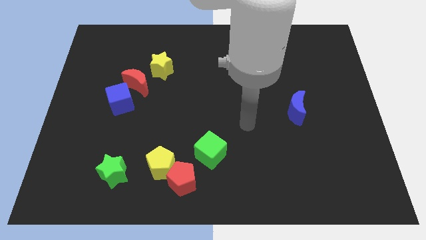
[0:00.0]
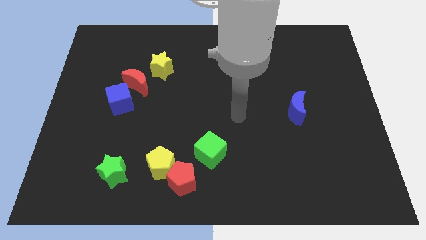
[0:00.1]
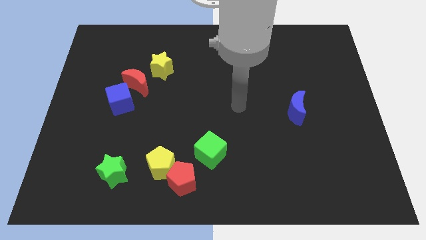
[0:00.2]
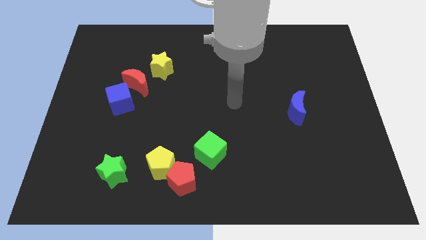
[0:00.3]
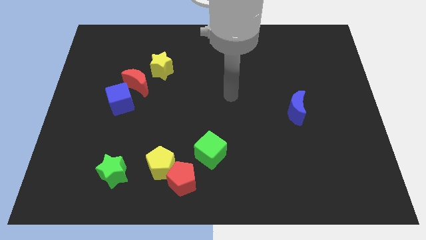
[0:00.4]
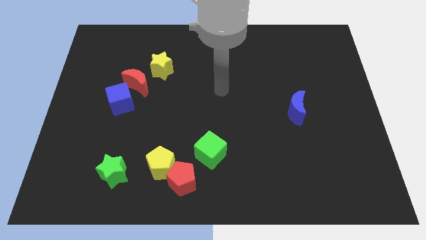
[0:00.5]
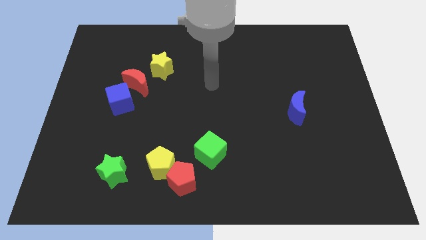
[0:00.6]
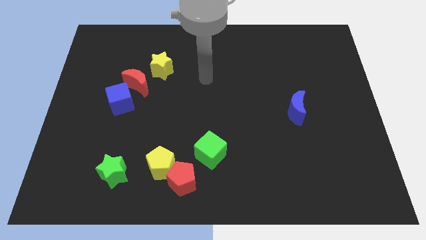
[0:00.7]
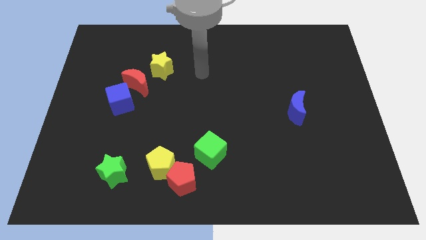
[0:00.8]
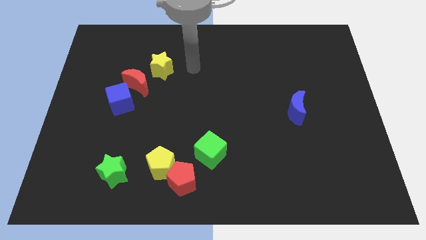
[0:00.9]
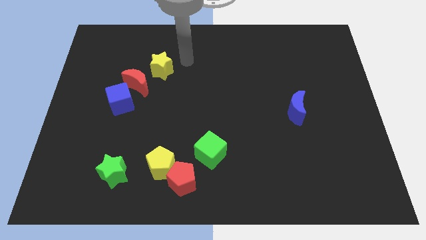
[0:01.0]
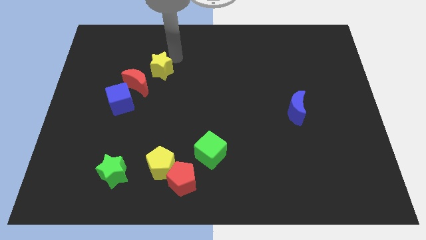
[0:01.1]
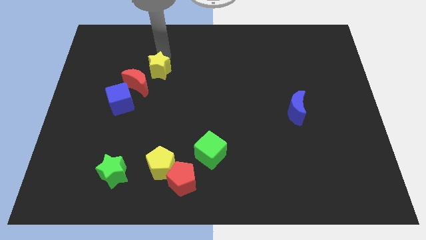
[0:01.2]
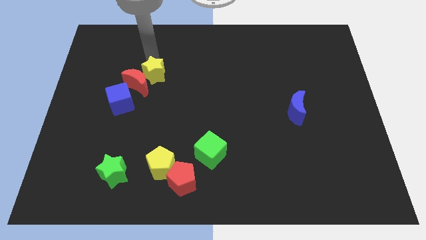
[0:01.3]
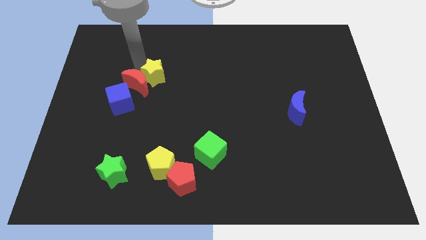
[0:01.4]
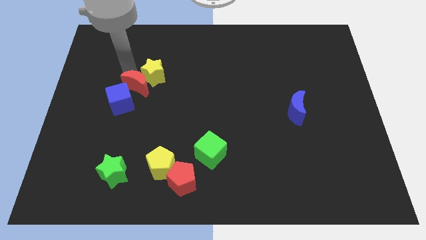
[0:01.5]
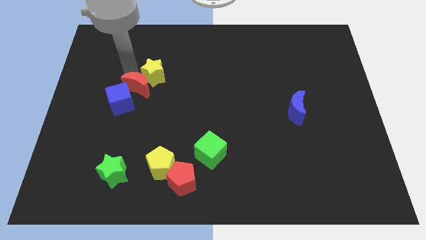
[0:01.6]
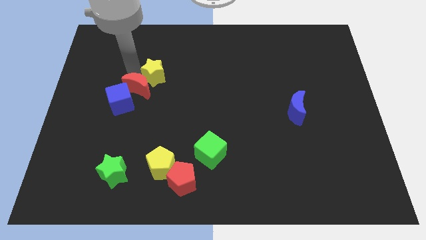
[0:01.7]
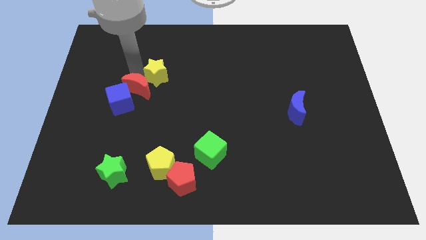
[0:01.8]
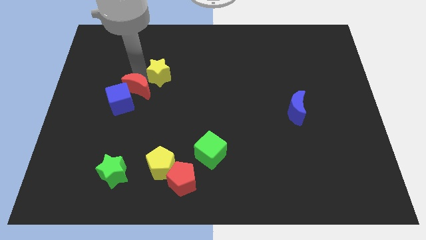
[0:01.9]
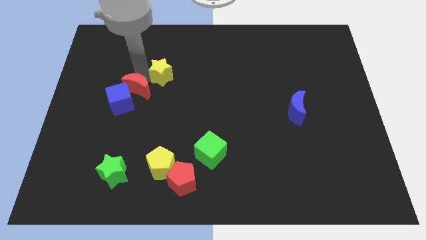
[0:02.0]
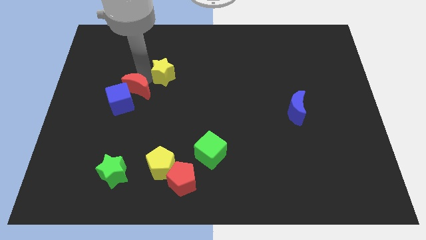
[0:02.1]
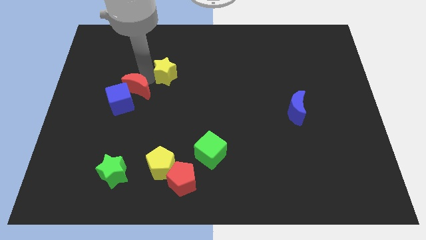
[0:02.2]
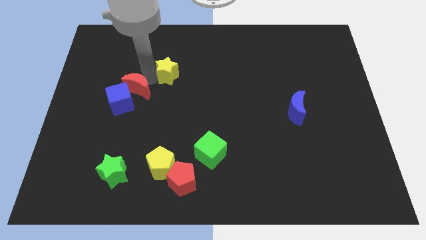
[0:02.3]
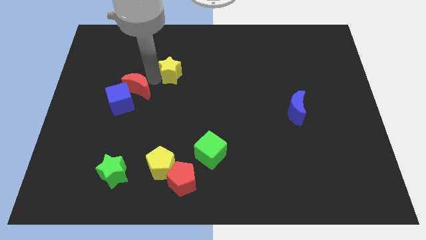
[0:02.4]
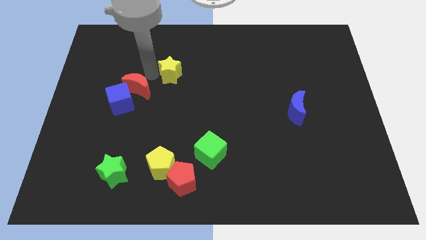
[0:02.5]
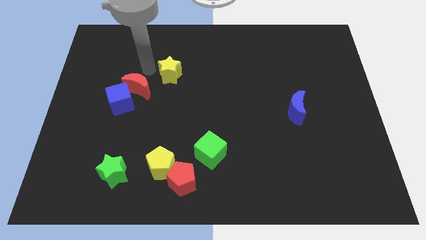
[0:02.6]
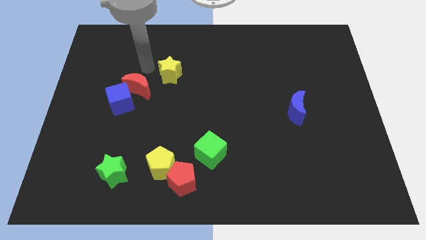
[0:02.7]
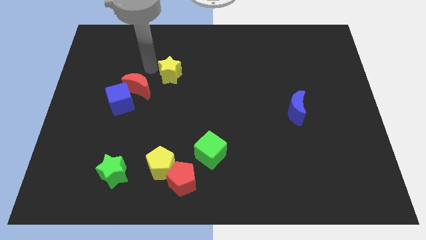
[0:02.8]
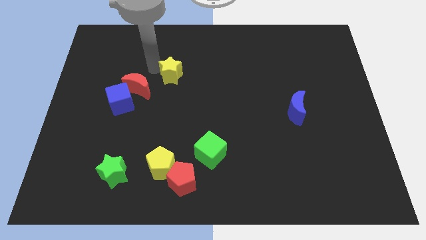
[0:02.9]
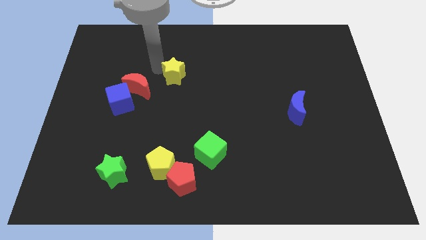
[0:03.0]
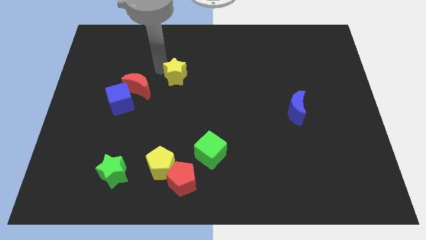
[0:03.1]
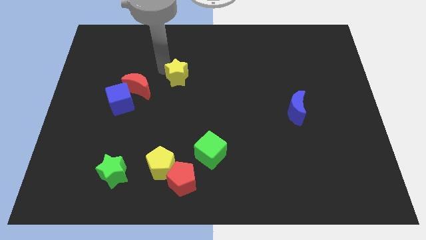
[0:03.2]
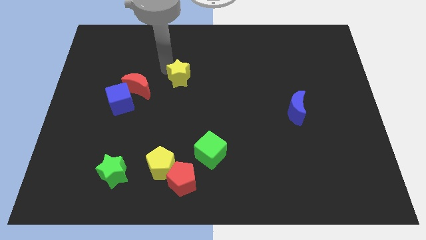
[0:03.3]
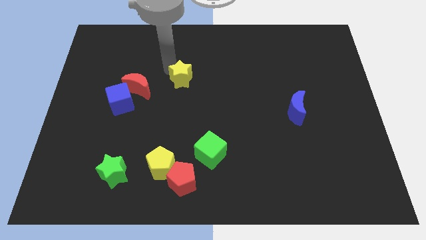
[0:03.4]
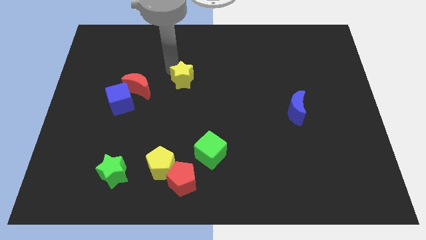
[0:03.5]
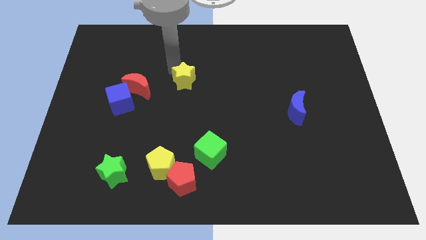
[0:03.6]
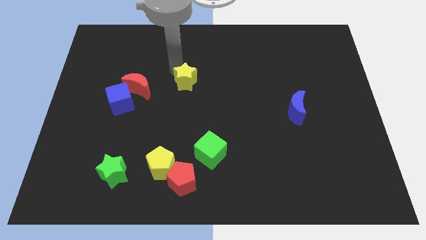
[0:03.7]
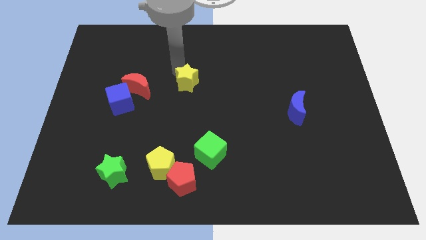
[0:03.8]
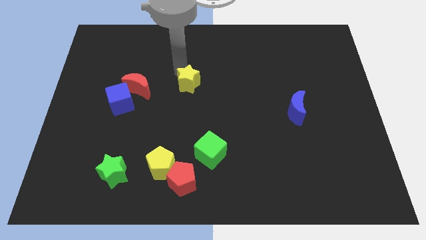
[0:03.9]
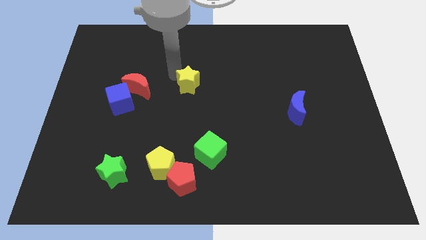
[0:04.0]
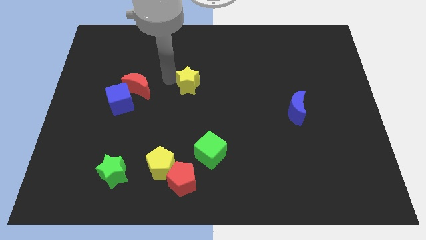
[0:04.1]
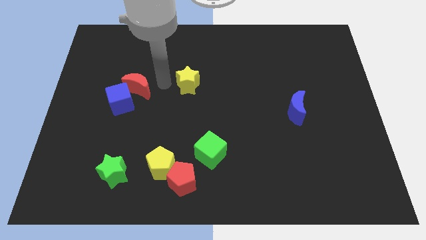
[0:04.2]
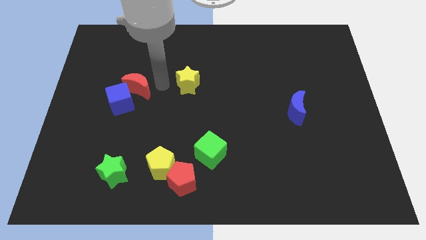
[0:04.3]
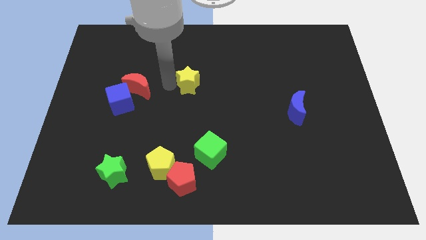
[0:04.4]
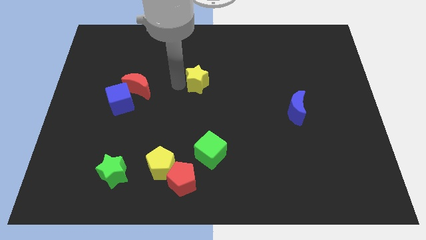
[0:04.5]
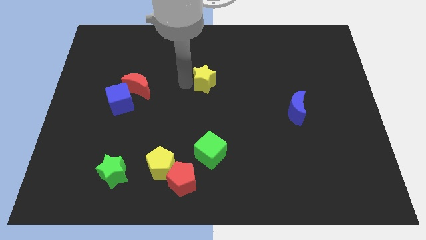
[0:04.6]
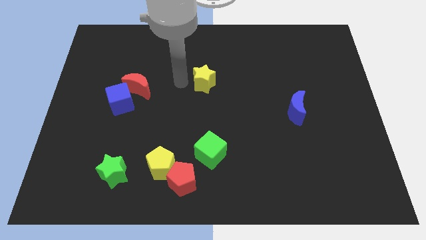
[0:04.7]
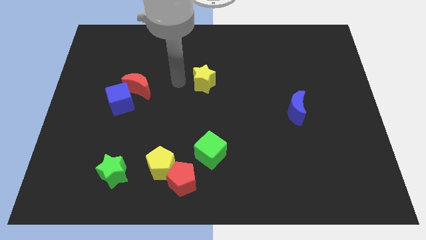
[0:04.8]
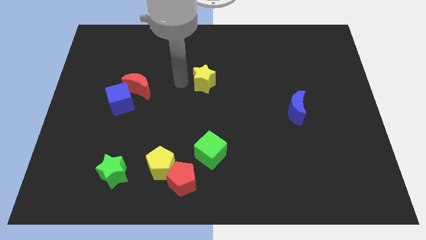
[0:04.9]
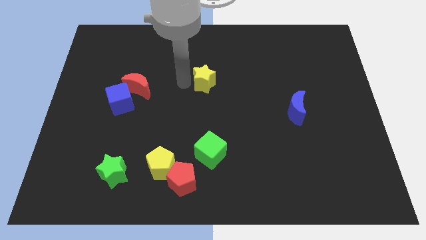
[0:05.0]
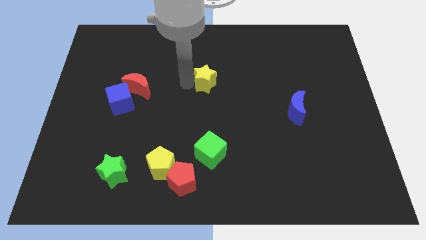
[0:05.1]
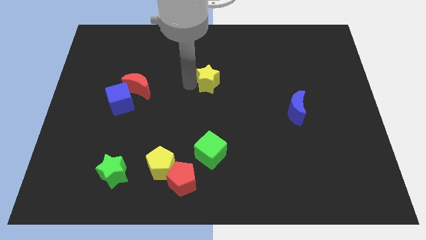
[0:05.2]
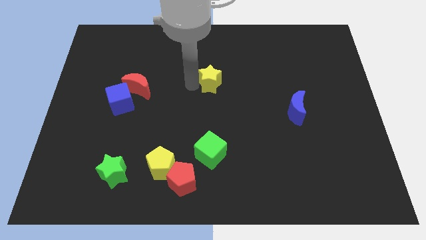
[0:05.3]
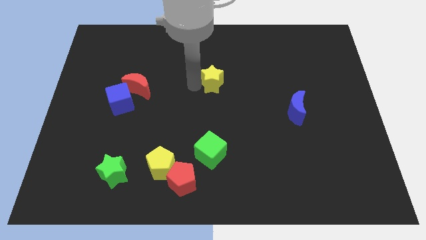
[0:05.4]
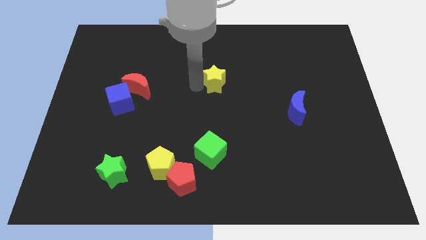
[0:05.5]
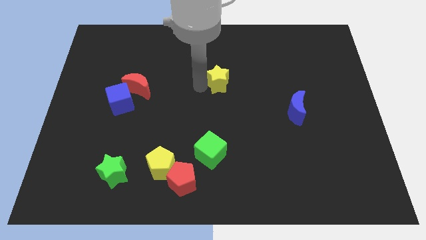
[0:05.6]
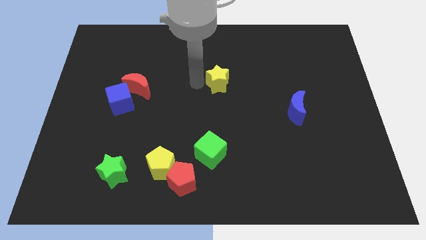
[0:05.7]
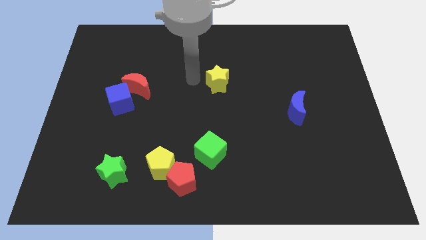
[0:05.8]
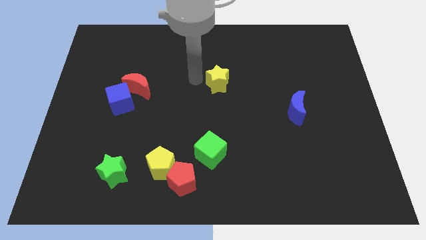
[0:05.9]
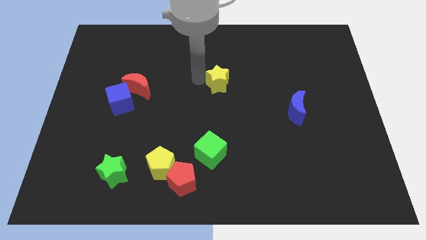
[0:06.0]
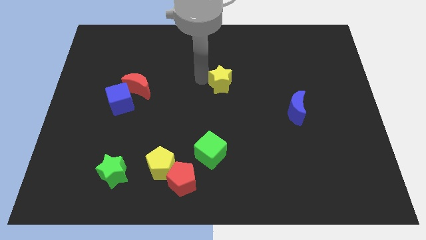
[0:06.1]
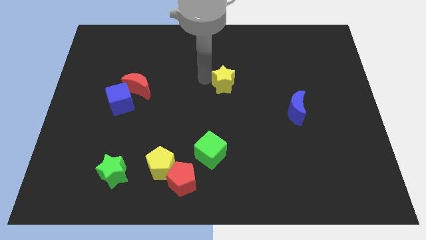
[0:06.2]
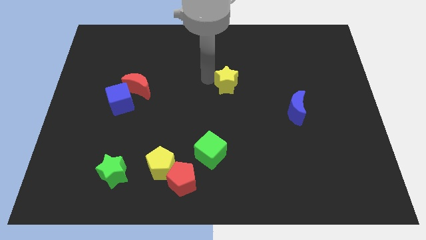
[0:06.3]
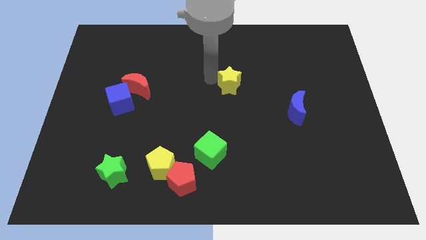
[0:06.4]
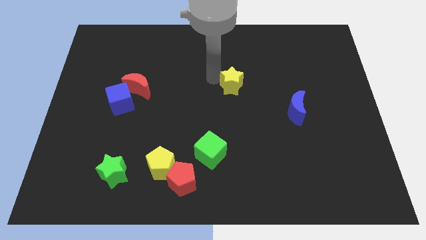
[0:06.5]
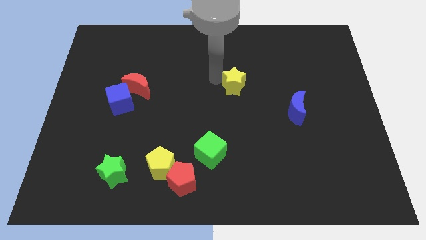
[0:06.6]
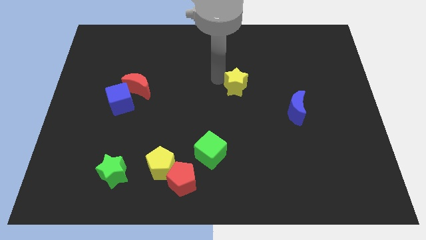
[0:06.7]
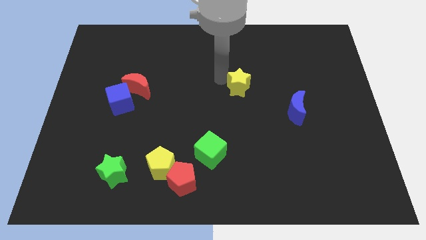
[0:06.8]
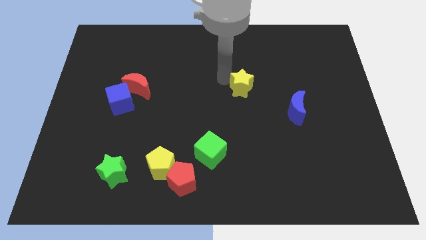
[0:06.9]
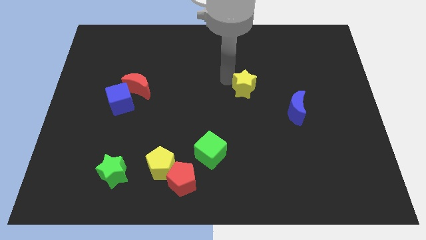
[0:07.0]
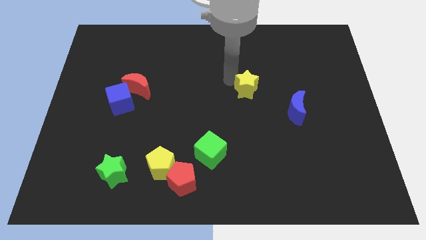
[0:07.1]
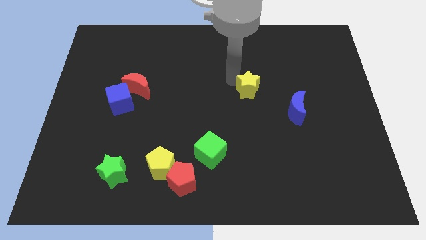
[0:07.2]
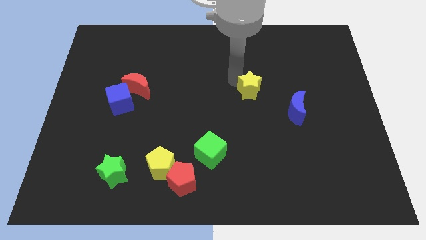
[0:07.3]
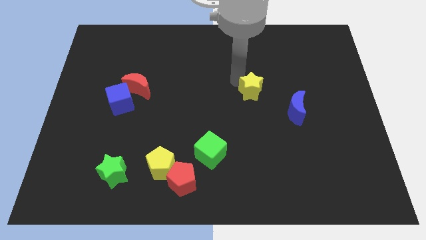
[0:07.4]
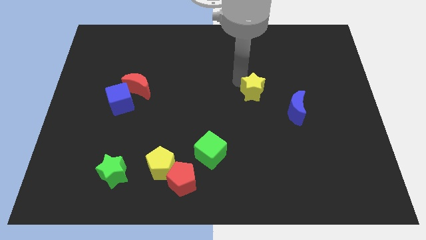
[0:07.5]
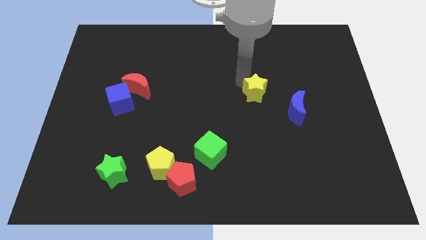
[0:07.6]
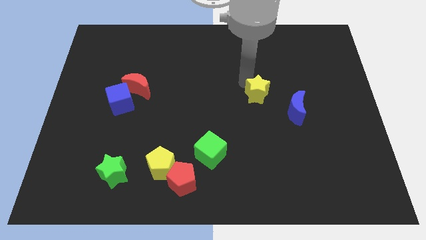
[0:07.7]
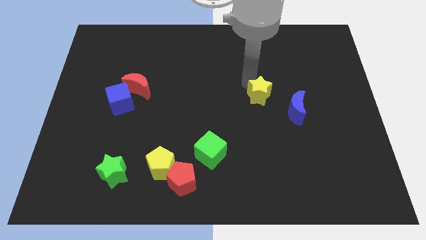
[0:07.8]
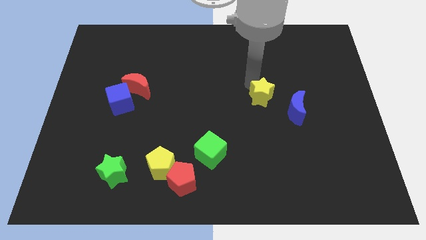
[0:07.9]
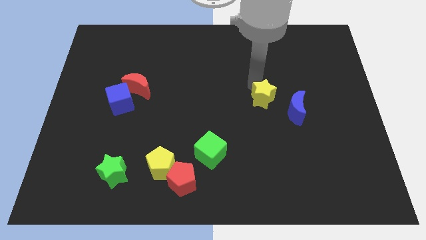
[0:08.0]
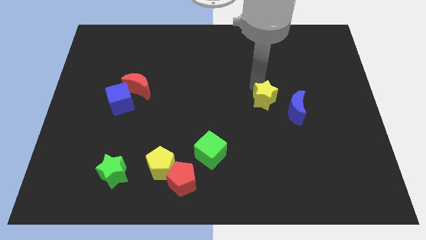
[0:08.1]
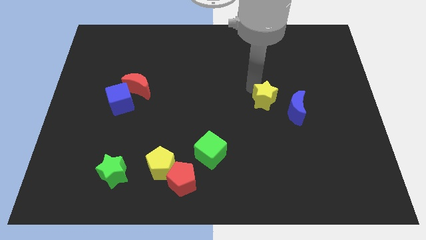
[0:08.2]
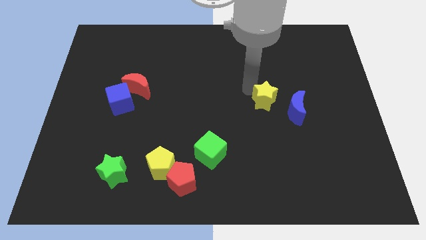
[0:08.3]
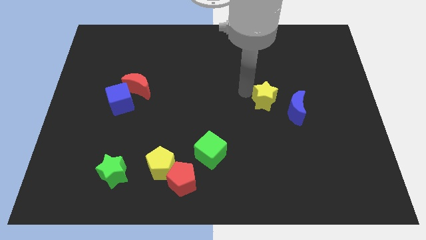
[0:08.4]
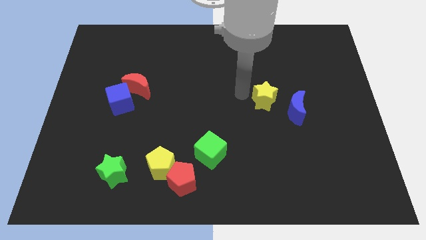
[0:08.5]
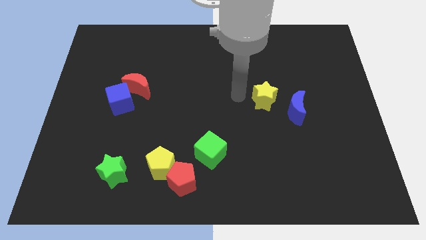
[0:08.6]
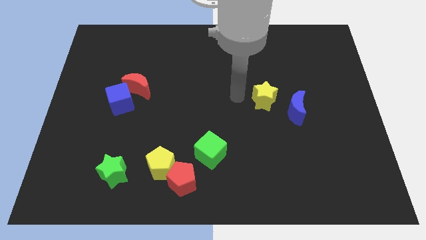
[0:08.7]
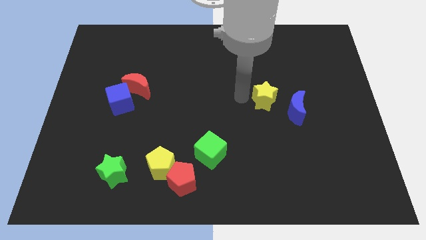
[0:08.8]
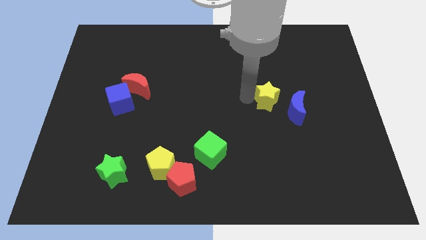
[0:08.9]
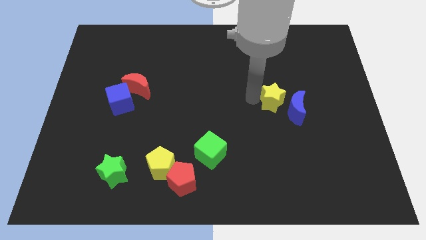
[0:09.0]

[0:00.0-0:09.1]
put the yellow star to the blue moon
